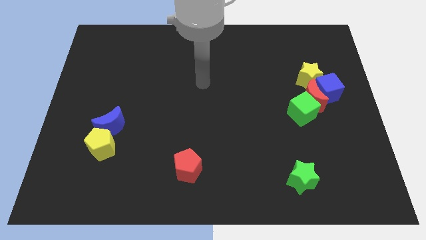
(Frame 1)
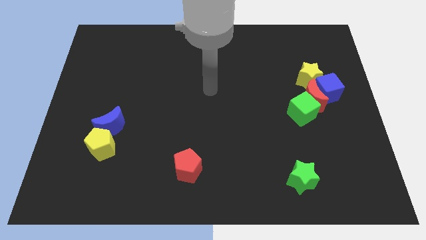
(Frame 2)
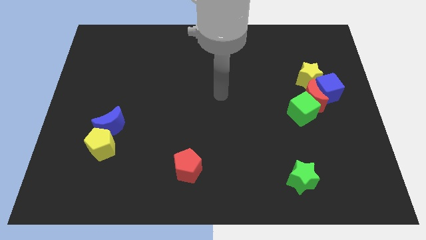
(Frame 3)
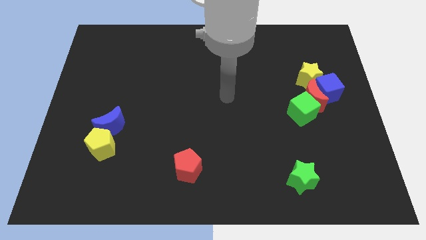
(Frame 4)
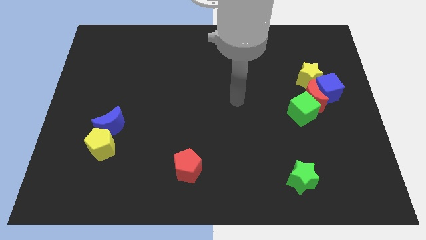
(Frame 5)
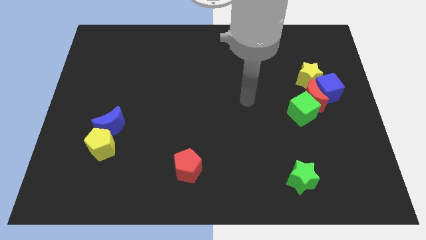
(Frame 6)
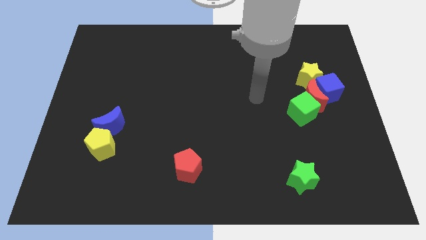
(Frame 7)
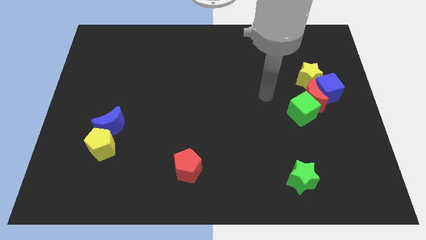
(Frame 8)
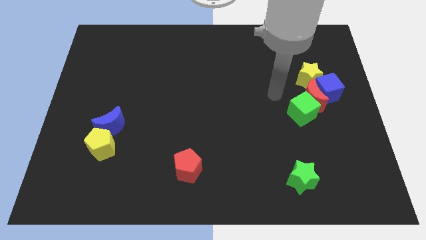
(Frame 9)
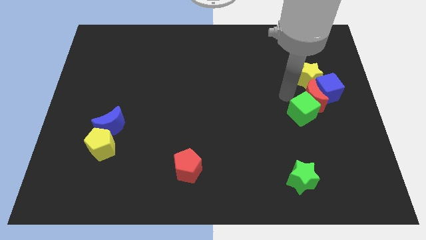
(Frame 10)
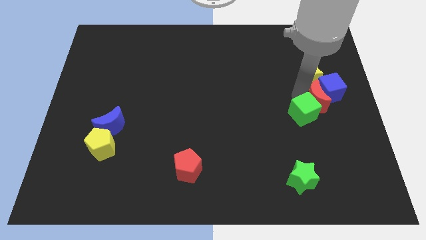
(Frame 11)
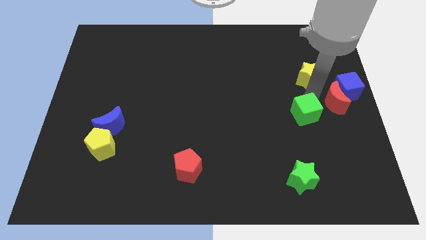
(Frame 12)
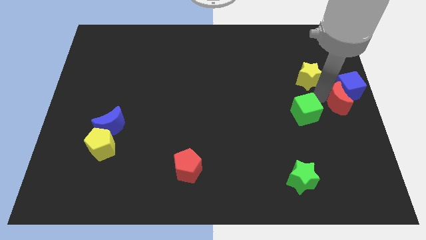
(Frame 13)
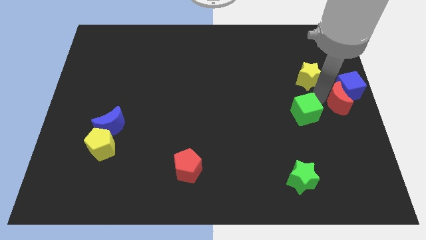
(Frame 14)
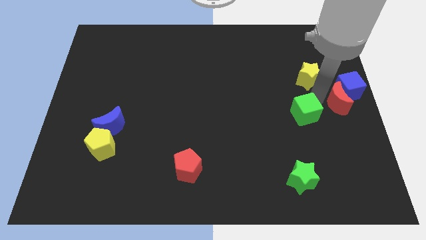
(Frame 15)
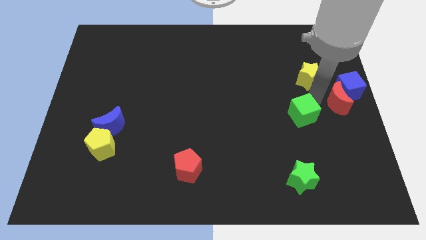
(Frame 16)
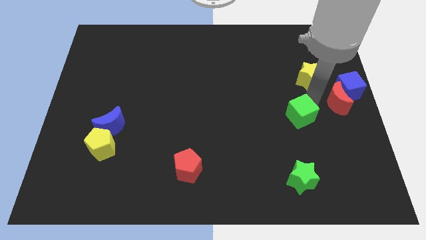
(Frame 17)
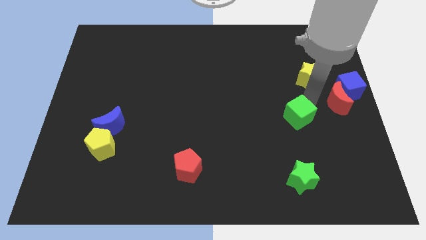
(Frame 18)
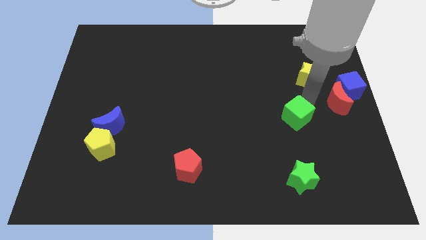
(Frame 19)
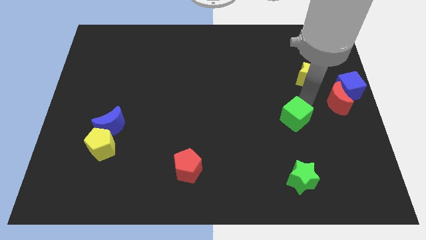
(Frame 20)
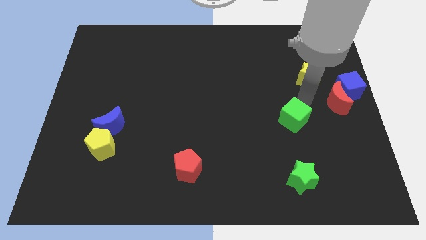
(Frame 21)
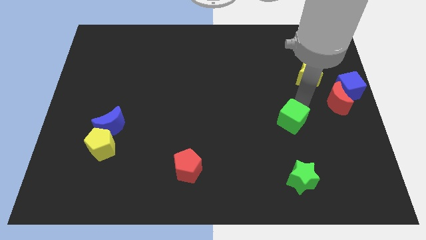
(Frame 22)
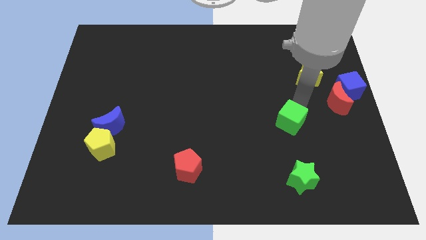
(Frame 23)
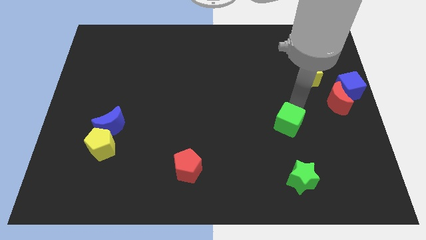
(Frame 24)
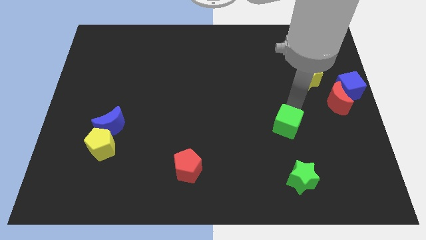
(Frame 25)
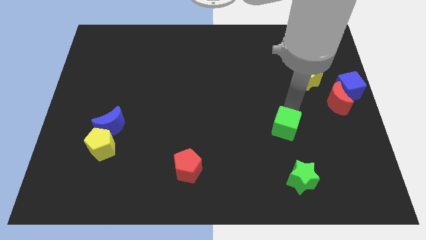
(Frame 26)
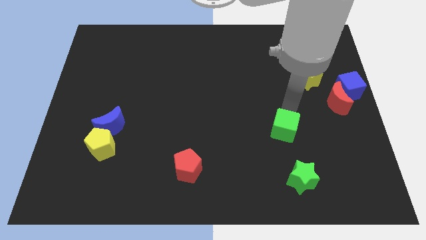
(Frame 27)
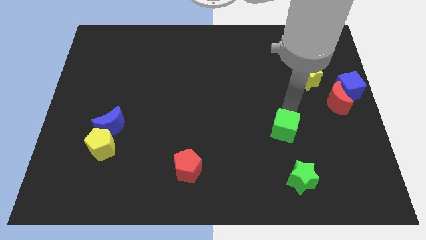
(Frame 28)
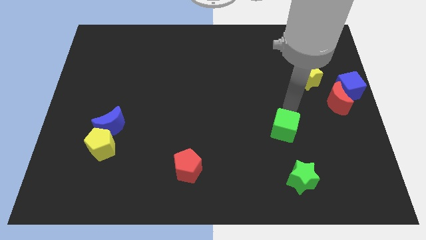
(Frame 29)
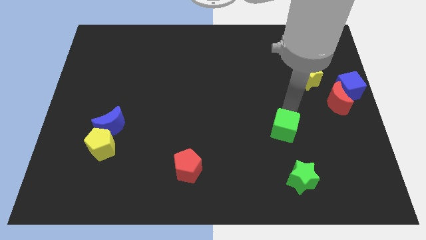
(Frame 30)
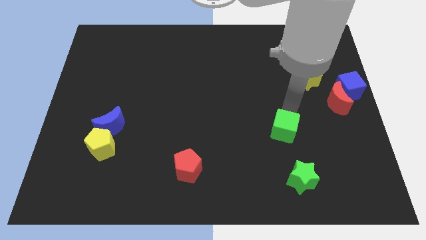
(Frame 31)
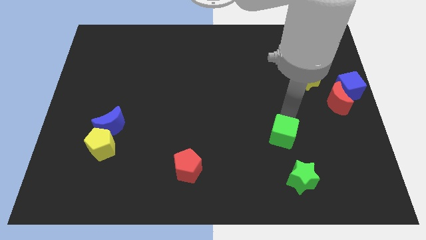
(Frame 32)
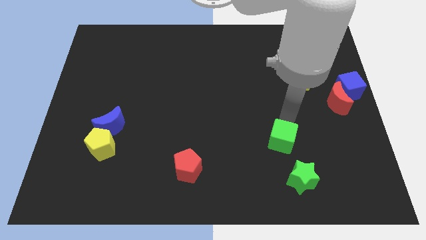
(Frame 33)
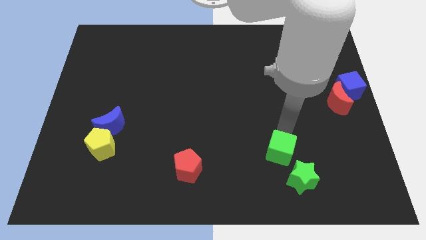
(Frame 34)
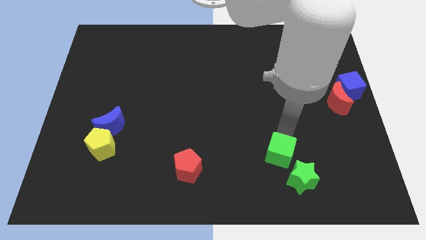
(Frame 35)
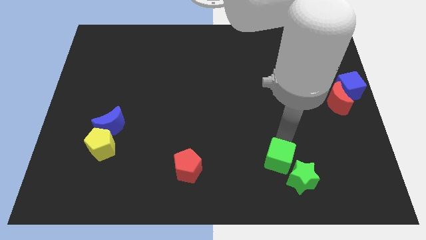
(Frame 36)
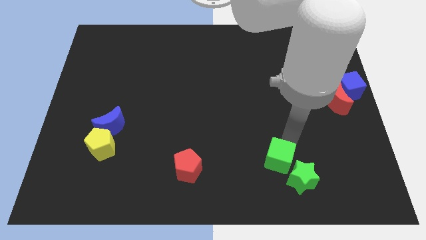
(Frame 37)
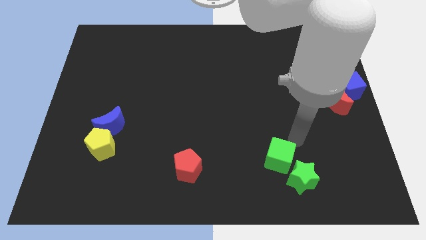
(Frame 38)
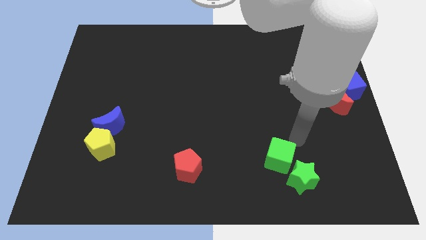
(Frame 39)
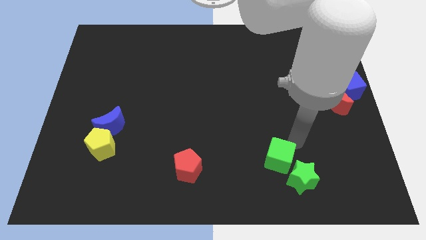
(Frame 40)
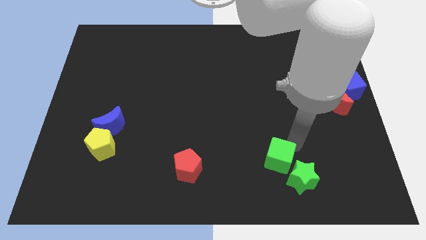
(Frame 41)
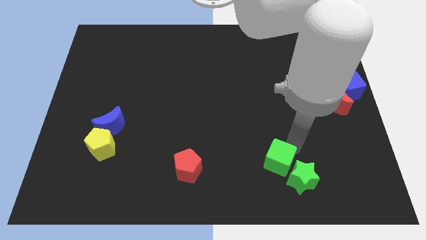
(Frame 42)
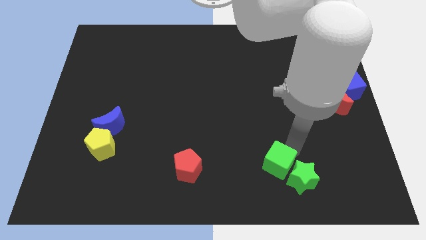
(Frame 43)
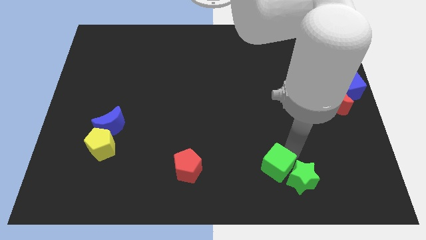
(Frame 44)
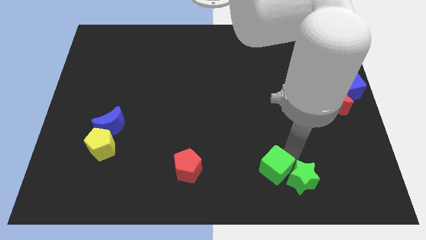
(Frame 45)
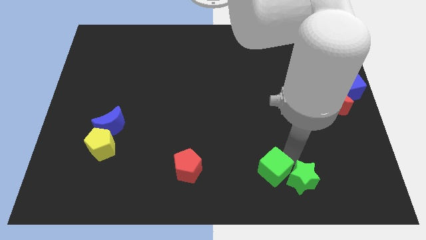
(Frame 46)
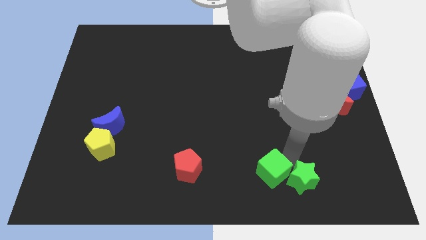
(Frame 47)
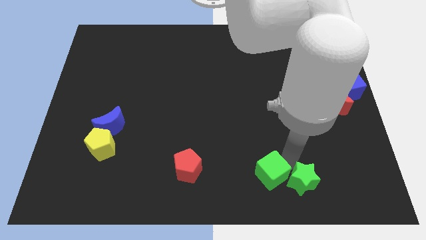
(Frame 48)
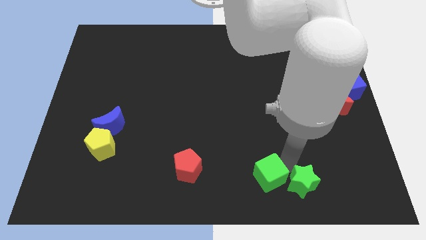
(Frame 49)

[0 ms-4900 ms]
slide the green cube to the bottom side

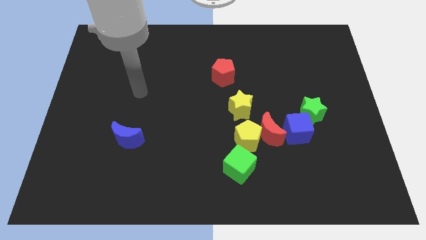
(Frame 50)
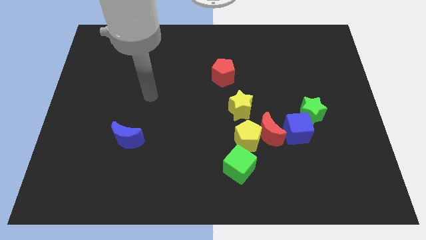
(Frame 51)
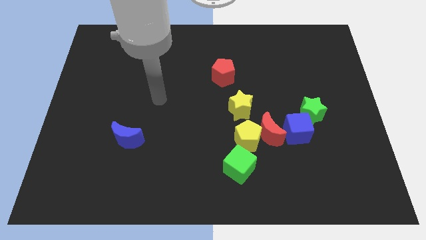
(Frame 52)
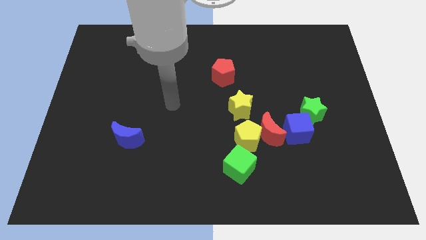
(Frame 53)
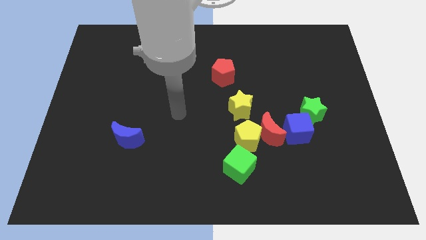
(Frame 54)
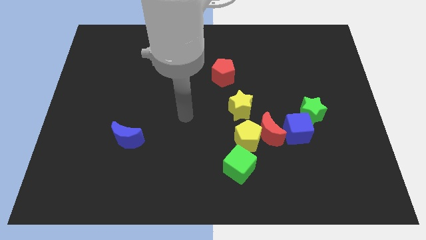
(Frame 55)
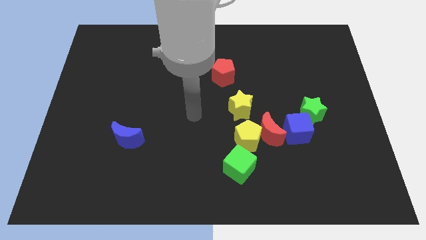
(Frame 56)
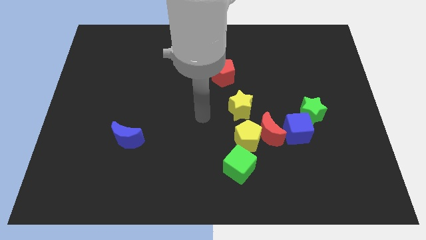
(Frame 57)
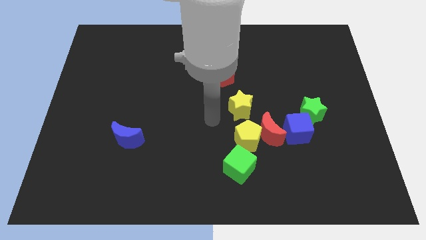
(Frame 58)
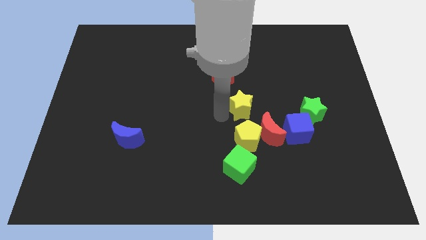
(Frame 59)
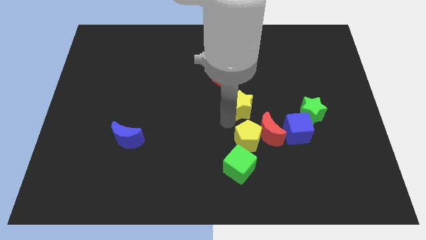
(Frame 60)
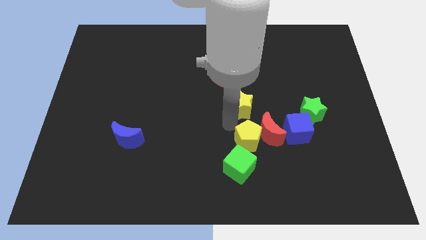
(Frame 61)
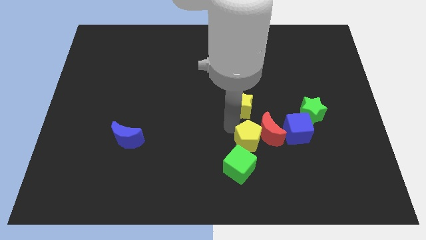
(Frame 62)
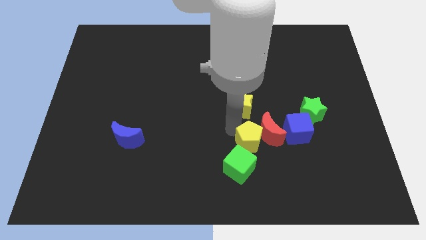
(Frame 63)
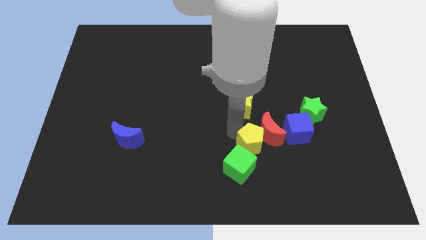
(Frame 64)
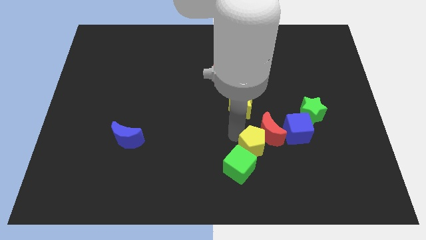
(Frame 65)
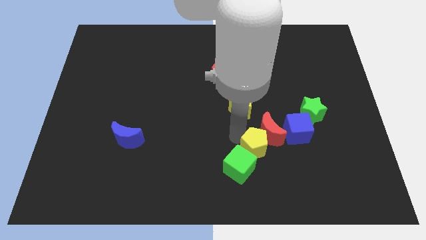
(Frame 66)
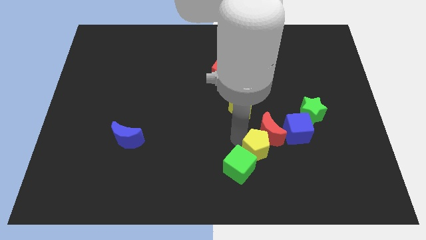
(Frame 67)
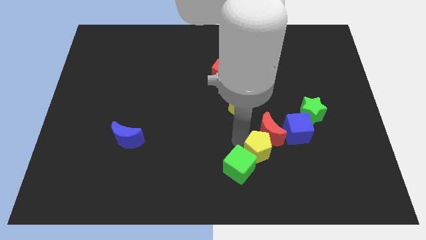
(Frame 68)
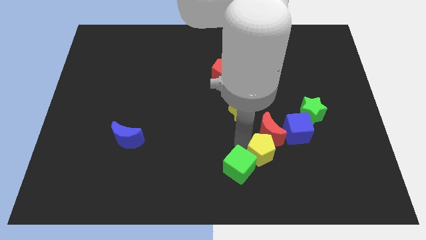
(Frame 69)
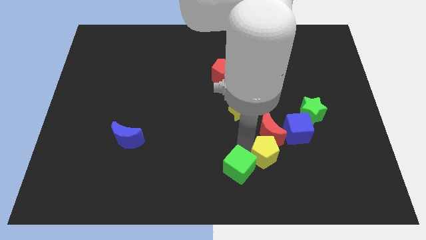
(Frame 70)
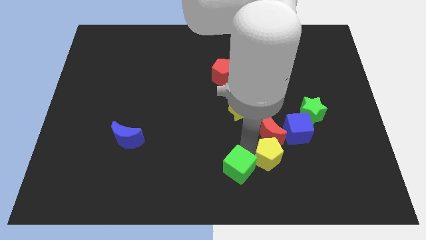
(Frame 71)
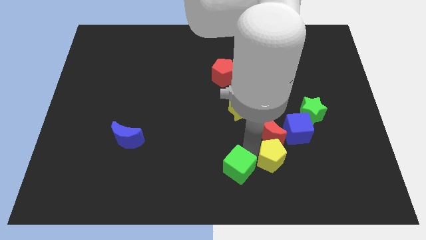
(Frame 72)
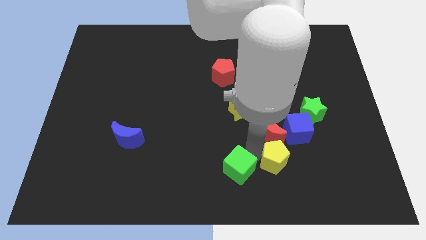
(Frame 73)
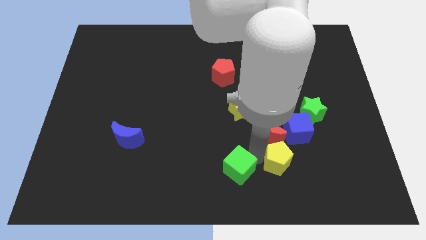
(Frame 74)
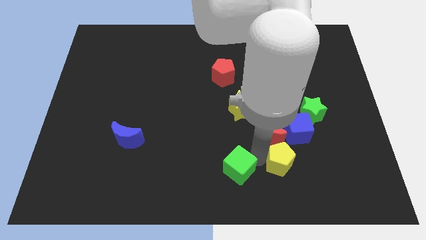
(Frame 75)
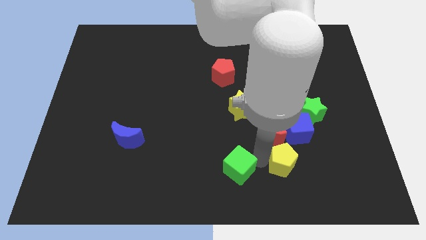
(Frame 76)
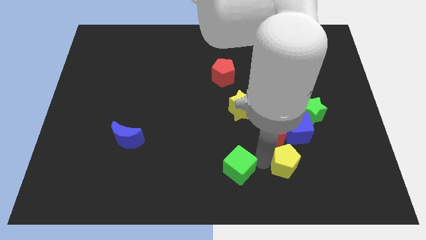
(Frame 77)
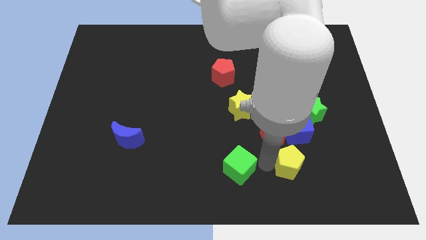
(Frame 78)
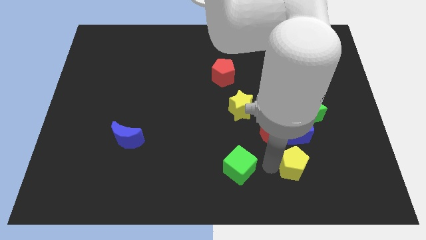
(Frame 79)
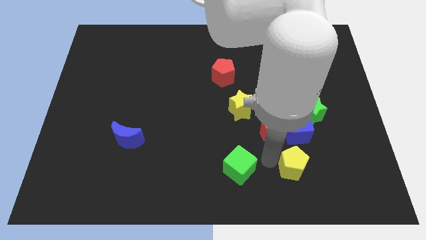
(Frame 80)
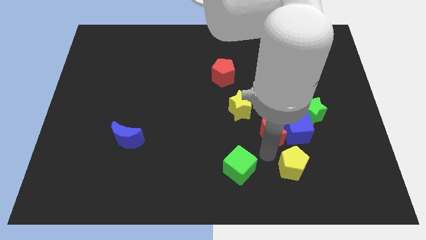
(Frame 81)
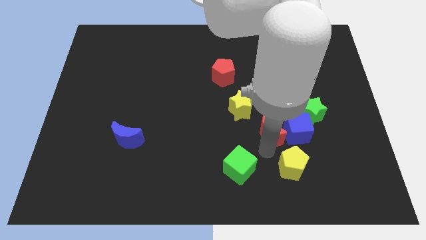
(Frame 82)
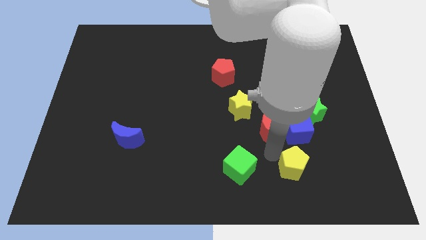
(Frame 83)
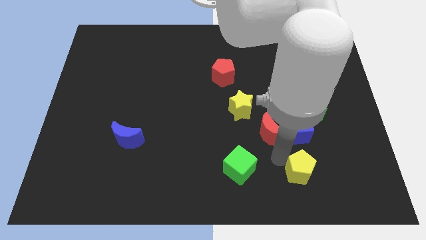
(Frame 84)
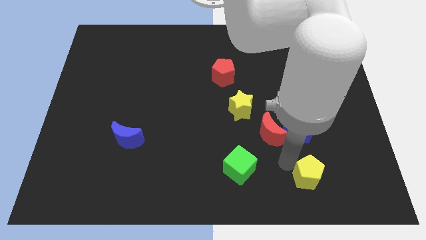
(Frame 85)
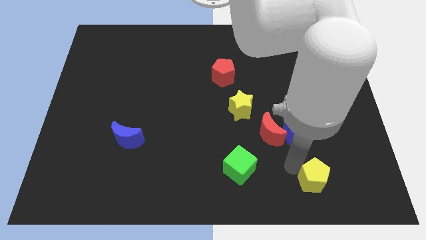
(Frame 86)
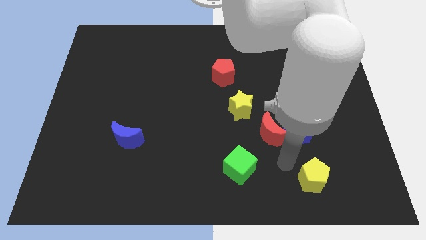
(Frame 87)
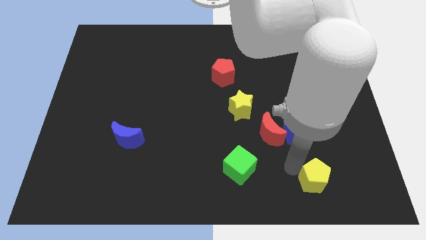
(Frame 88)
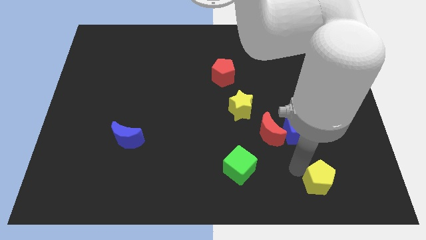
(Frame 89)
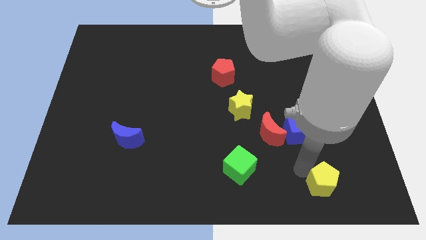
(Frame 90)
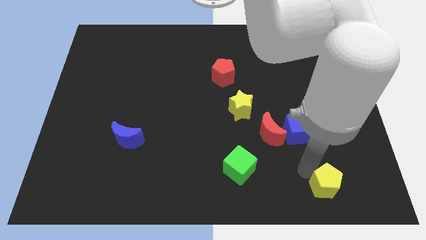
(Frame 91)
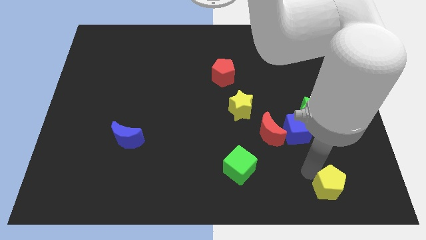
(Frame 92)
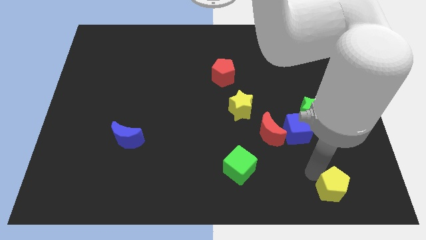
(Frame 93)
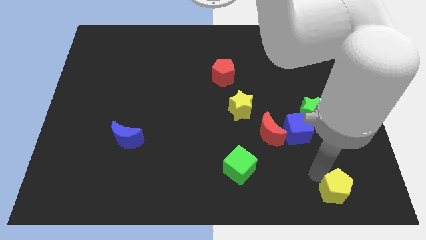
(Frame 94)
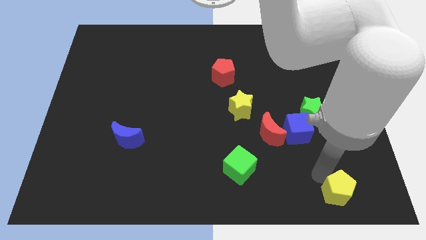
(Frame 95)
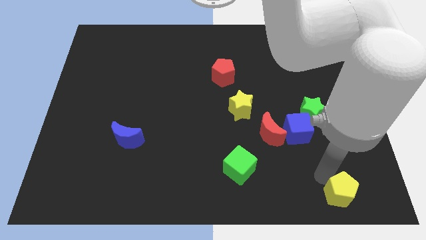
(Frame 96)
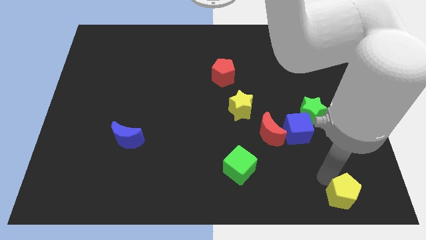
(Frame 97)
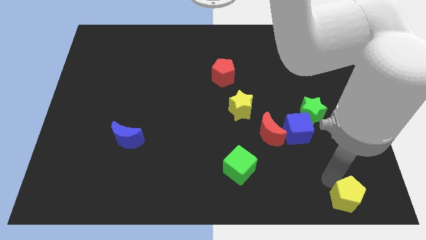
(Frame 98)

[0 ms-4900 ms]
push the yellow pentagon to the bottom right corner
